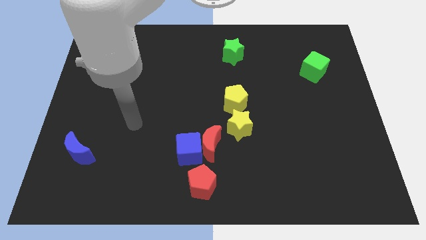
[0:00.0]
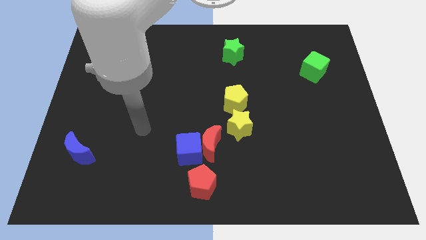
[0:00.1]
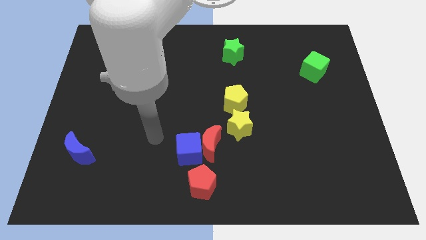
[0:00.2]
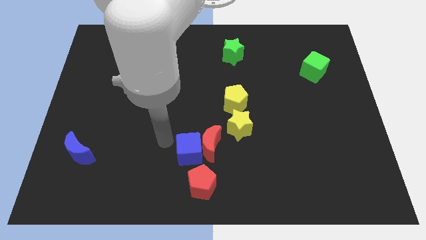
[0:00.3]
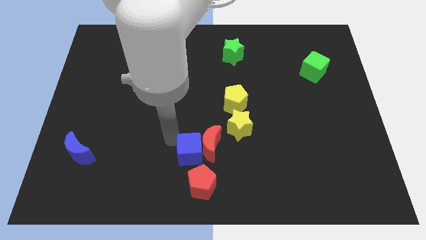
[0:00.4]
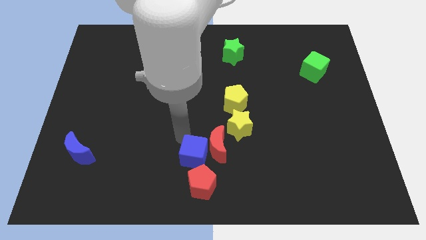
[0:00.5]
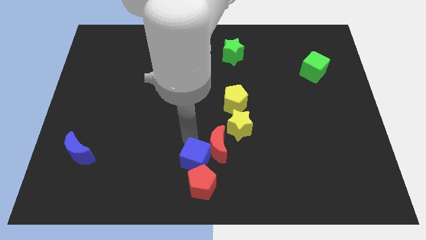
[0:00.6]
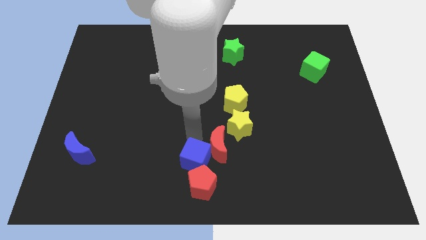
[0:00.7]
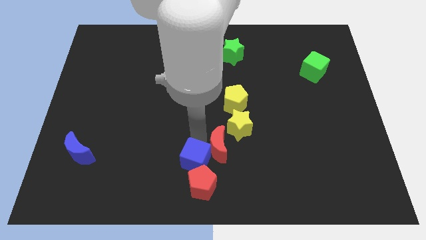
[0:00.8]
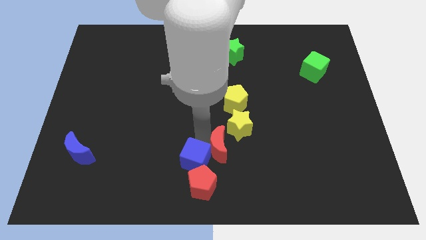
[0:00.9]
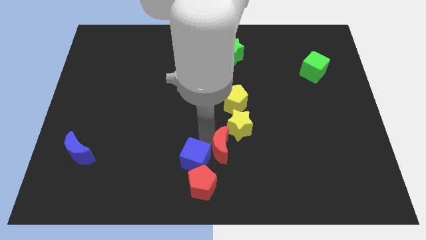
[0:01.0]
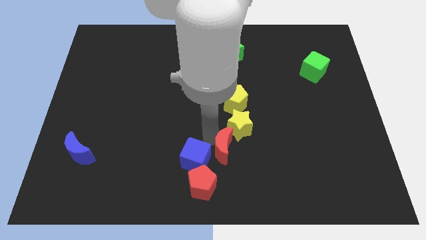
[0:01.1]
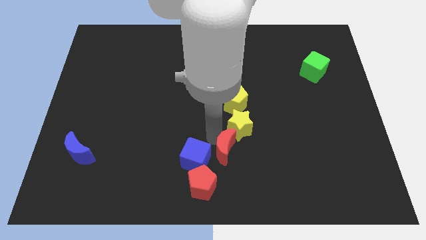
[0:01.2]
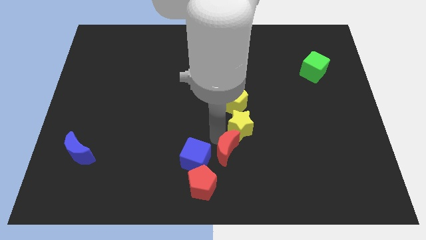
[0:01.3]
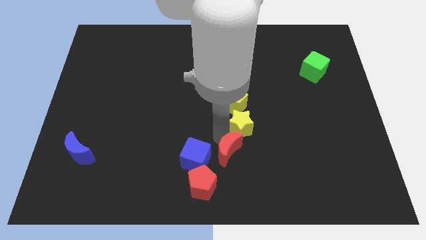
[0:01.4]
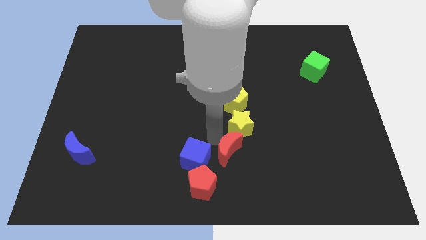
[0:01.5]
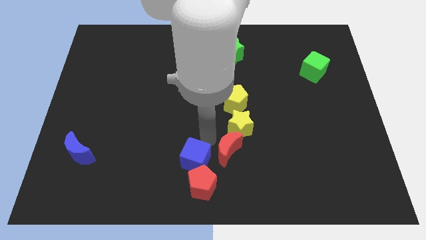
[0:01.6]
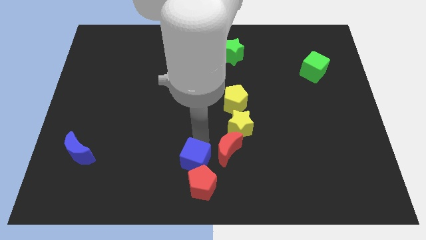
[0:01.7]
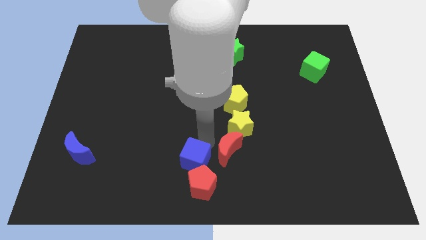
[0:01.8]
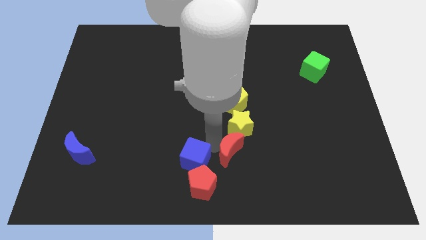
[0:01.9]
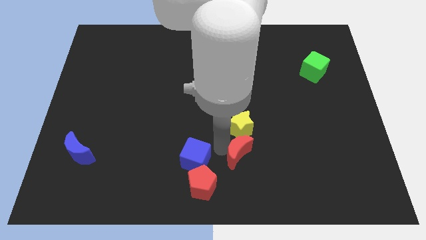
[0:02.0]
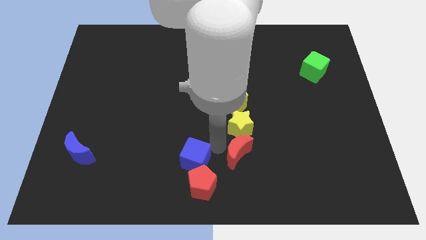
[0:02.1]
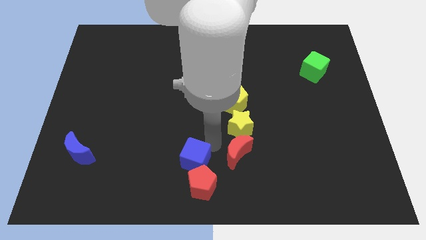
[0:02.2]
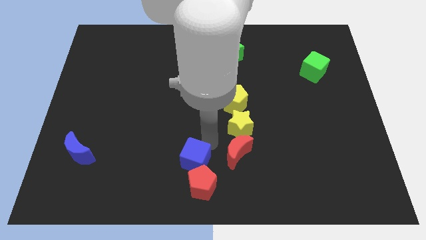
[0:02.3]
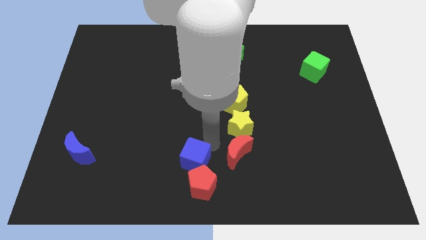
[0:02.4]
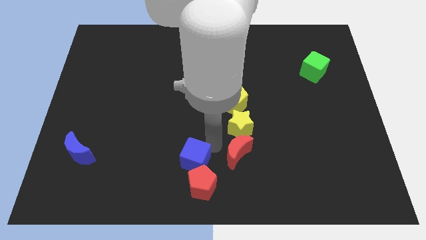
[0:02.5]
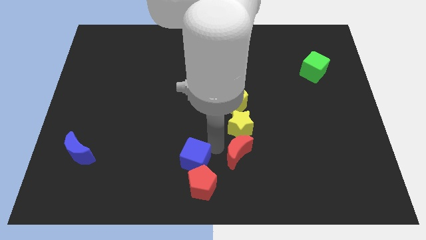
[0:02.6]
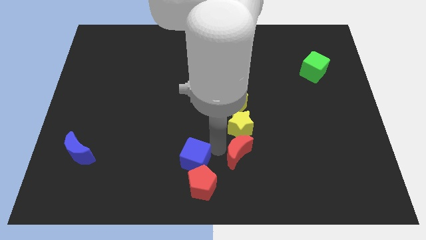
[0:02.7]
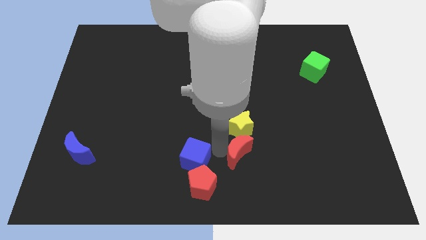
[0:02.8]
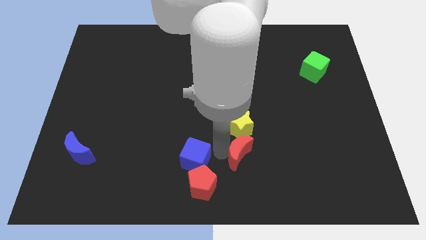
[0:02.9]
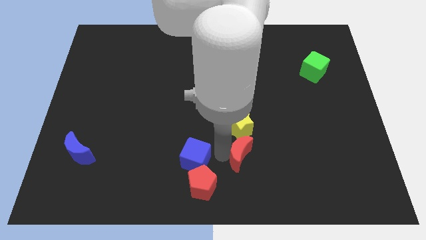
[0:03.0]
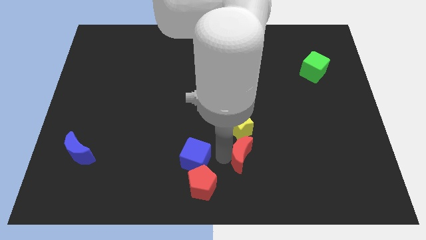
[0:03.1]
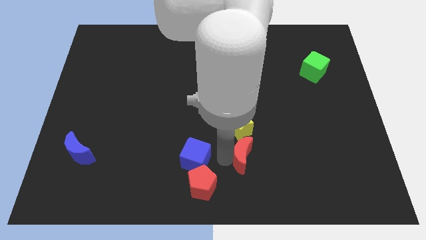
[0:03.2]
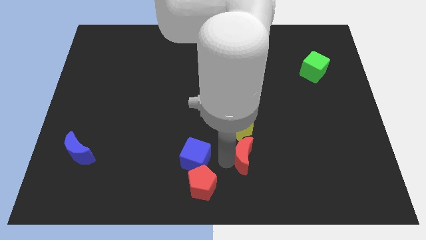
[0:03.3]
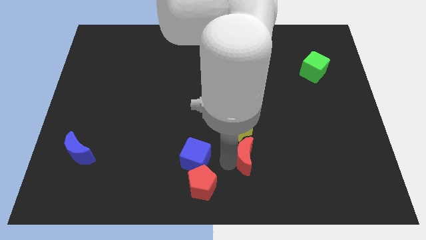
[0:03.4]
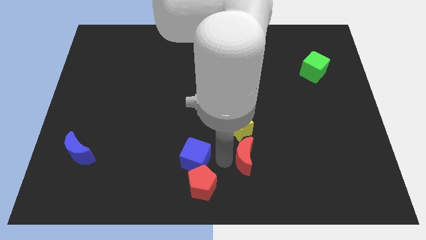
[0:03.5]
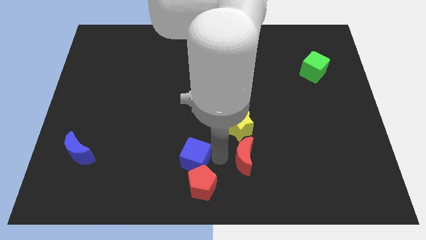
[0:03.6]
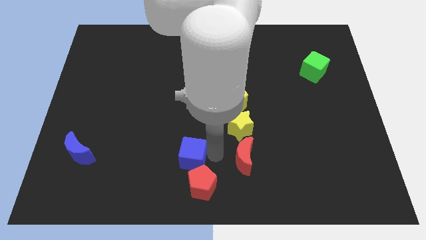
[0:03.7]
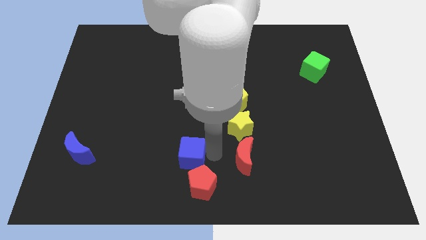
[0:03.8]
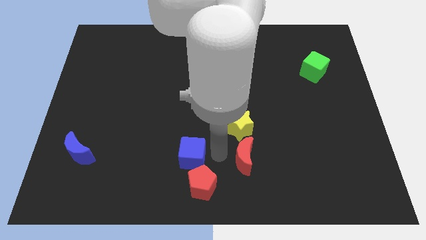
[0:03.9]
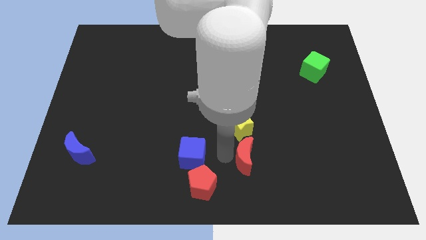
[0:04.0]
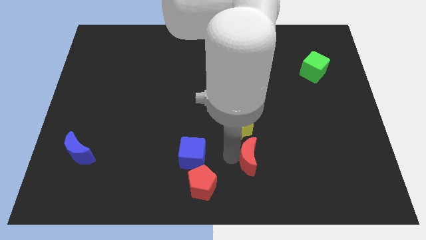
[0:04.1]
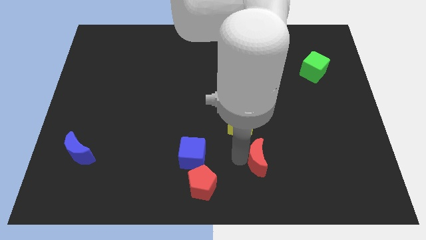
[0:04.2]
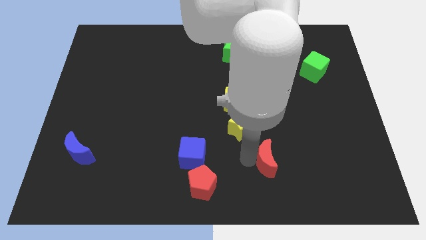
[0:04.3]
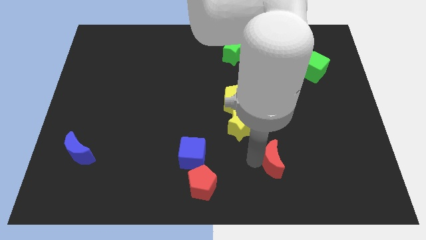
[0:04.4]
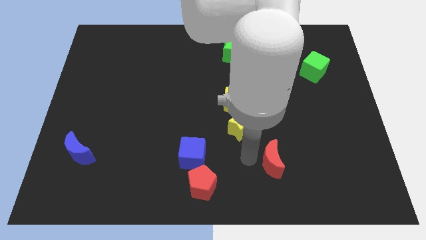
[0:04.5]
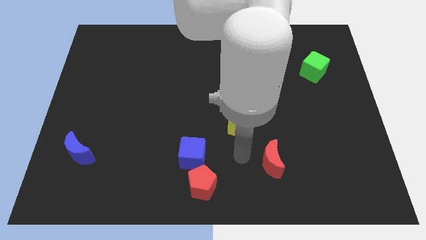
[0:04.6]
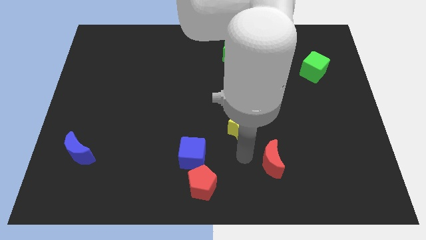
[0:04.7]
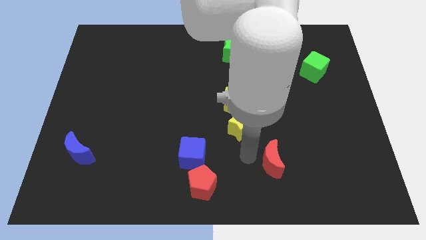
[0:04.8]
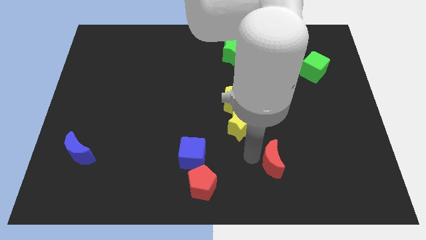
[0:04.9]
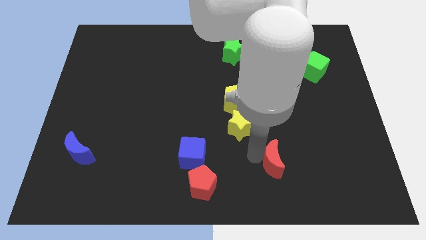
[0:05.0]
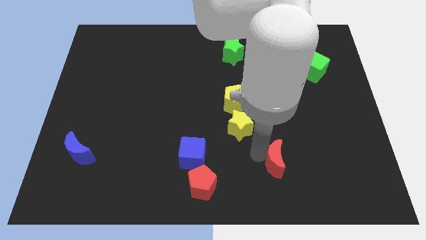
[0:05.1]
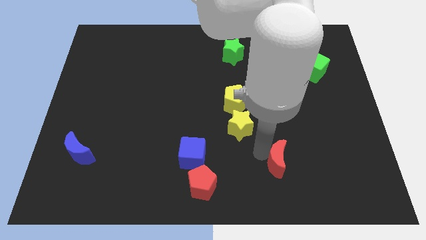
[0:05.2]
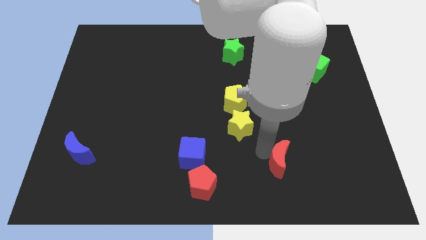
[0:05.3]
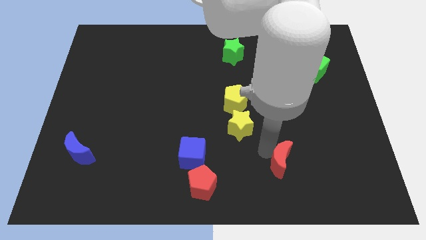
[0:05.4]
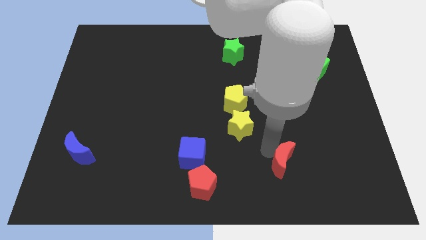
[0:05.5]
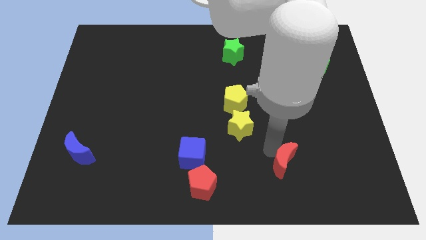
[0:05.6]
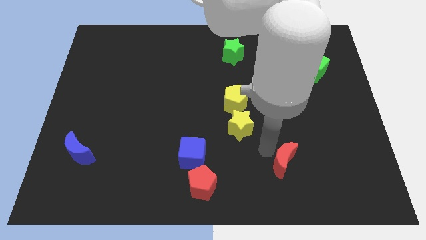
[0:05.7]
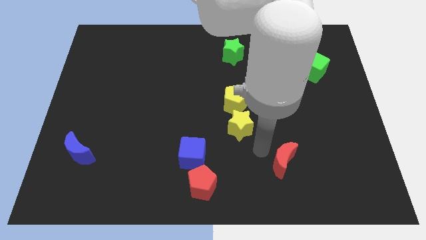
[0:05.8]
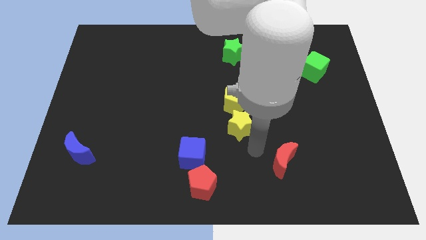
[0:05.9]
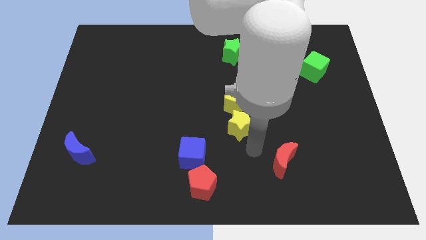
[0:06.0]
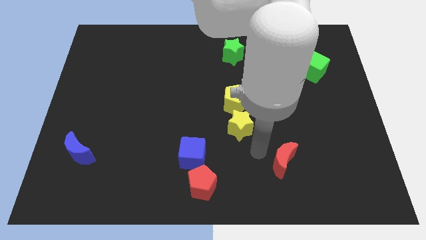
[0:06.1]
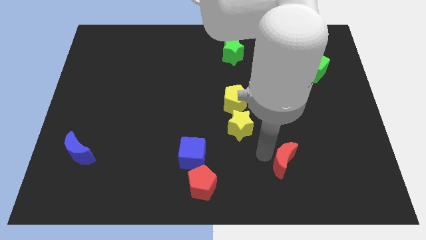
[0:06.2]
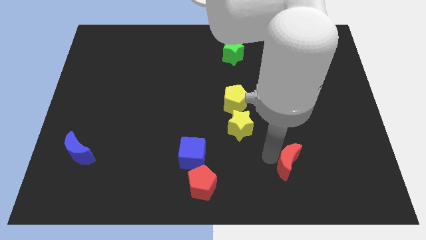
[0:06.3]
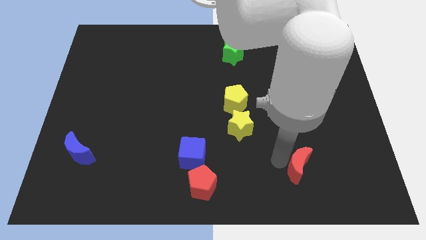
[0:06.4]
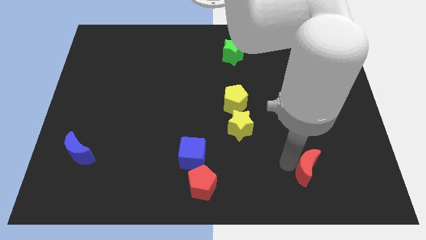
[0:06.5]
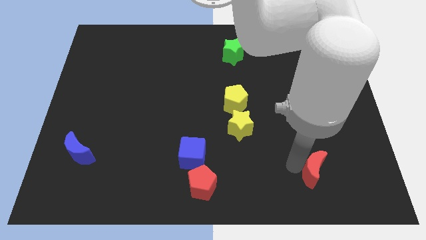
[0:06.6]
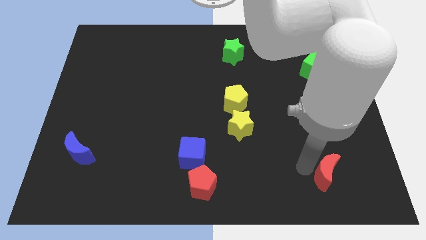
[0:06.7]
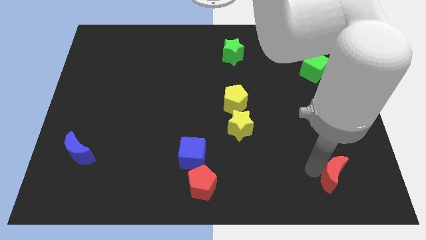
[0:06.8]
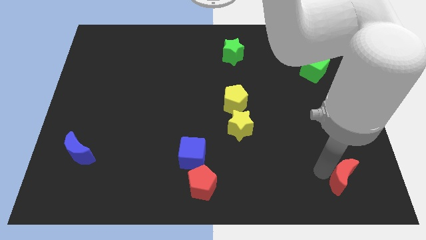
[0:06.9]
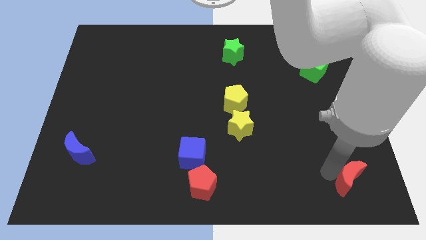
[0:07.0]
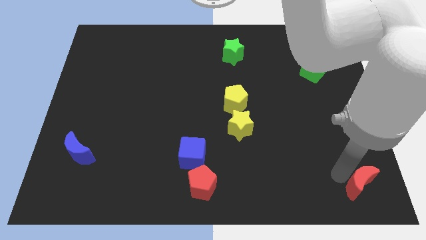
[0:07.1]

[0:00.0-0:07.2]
move the red moon to the bottom right
